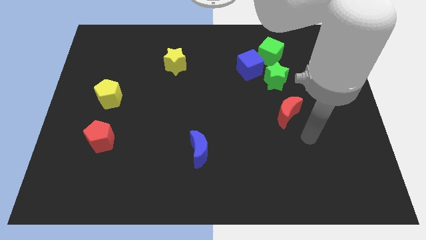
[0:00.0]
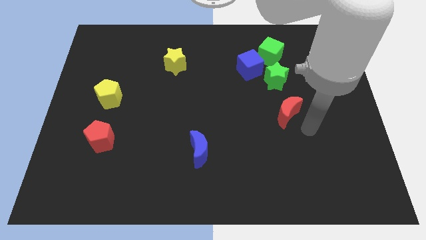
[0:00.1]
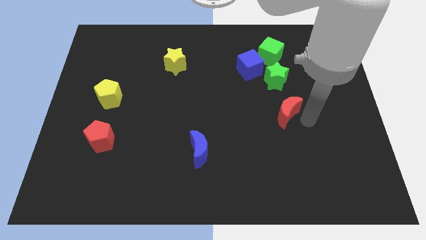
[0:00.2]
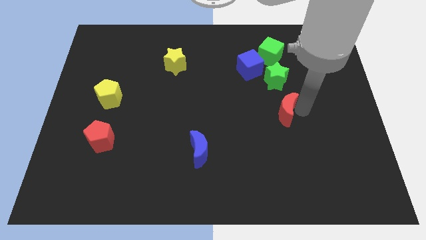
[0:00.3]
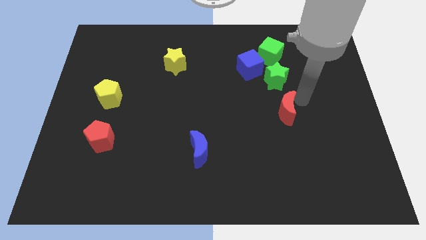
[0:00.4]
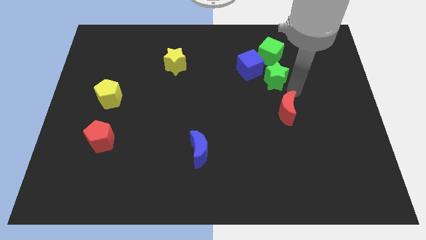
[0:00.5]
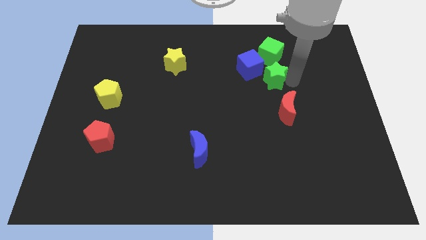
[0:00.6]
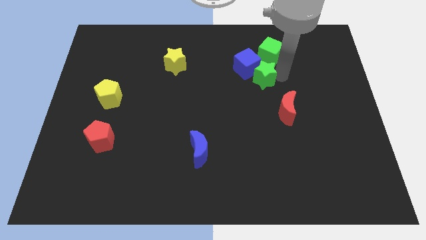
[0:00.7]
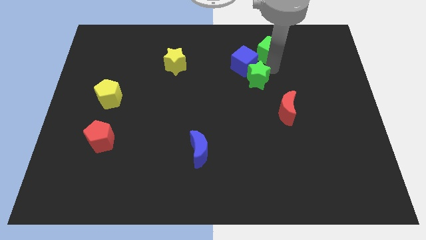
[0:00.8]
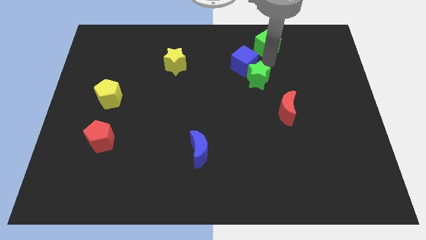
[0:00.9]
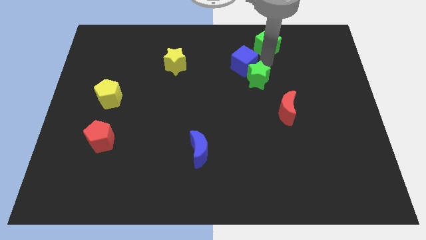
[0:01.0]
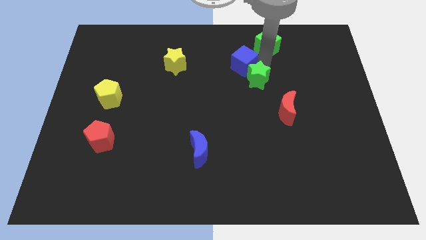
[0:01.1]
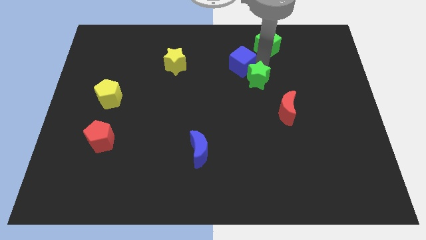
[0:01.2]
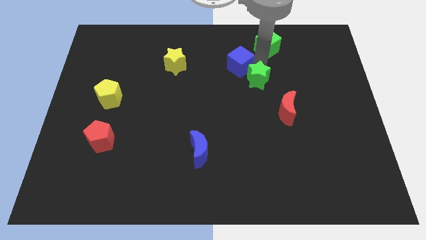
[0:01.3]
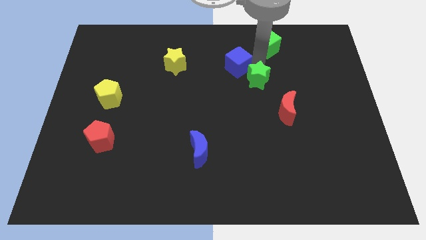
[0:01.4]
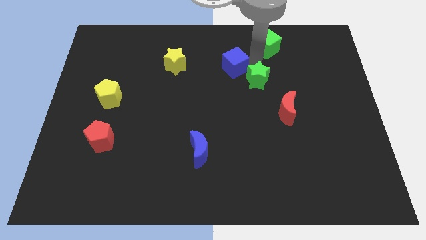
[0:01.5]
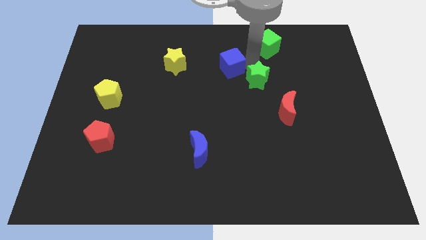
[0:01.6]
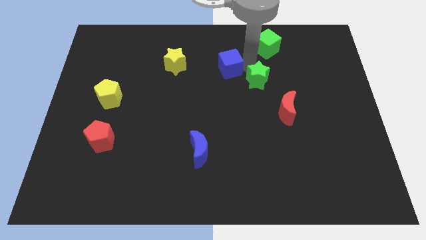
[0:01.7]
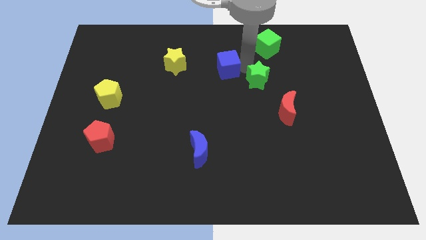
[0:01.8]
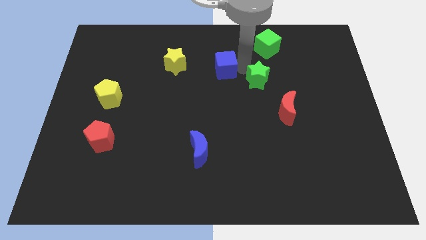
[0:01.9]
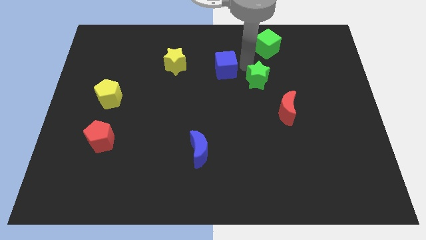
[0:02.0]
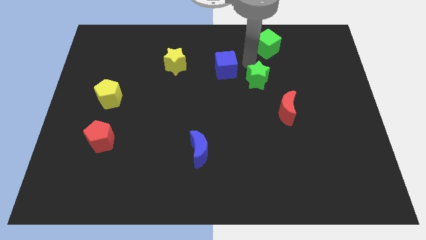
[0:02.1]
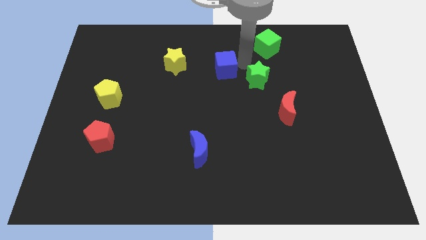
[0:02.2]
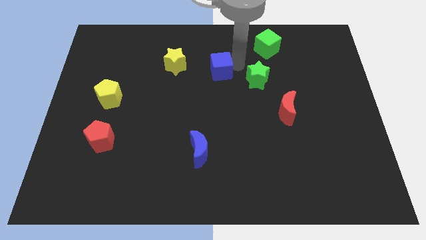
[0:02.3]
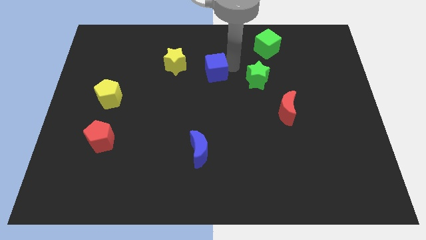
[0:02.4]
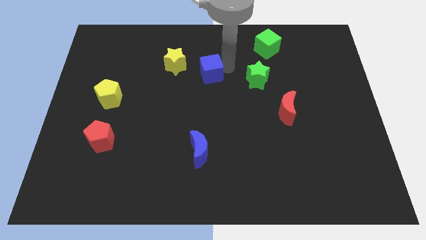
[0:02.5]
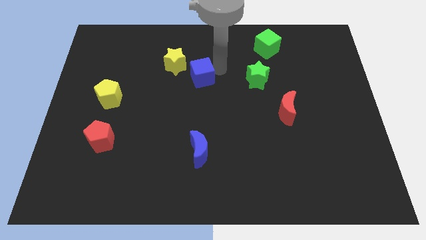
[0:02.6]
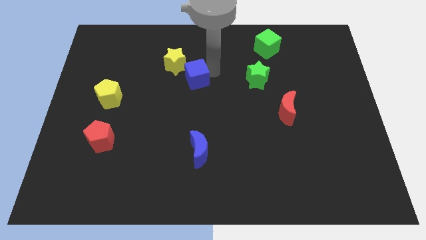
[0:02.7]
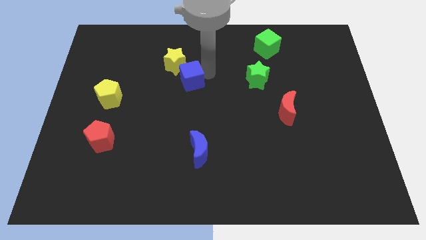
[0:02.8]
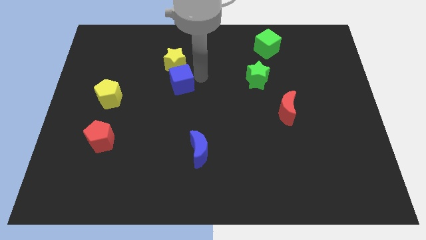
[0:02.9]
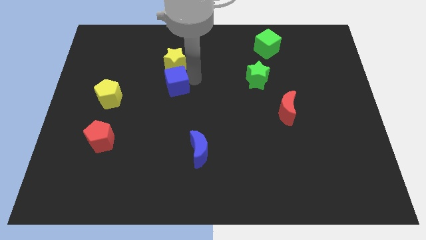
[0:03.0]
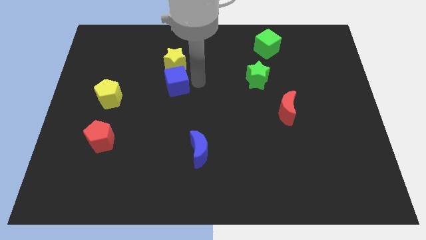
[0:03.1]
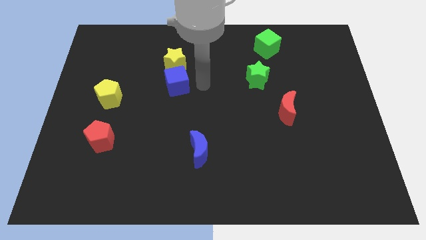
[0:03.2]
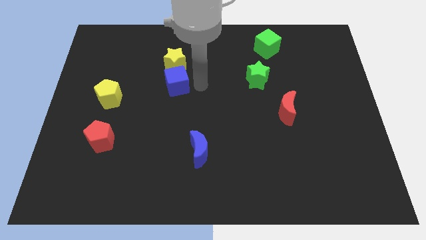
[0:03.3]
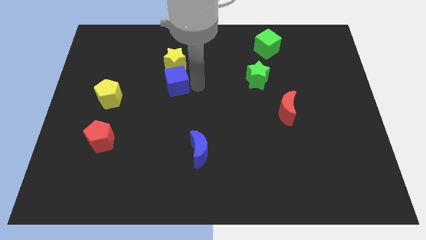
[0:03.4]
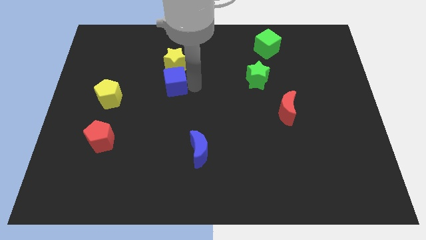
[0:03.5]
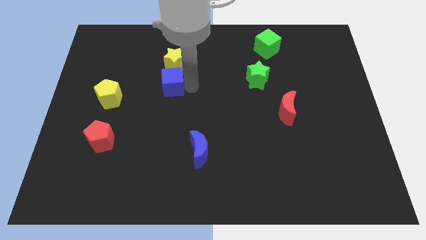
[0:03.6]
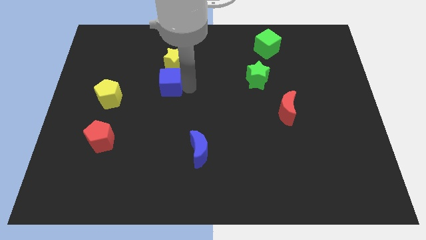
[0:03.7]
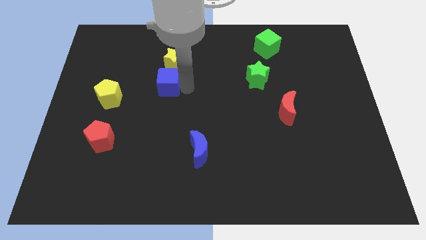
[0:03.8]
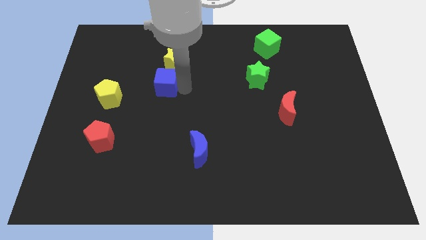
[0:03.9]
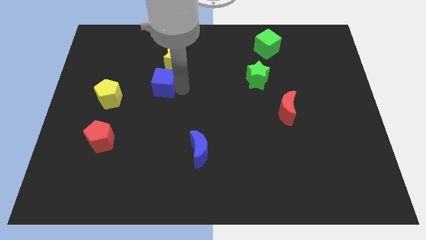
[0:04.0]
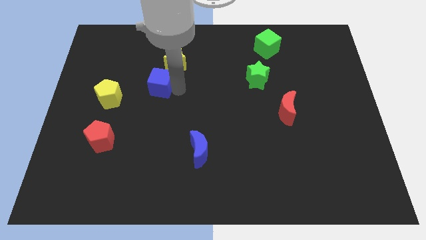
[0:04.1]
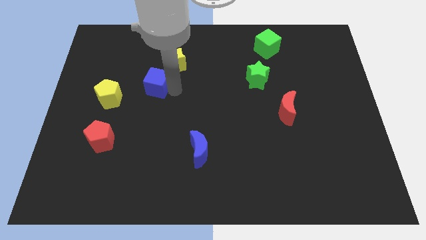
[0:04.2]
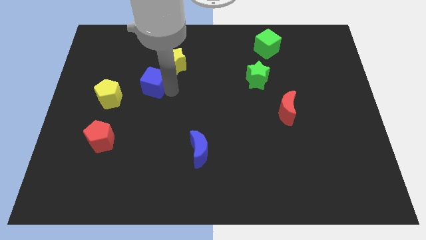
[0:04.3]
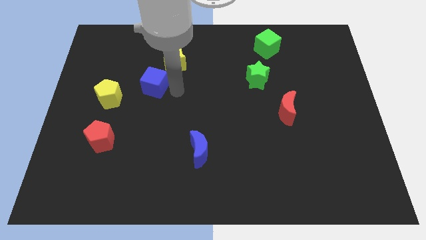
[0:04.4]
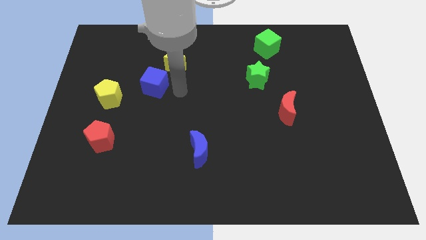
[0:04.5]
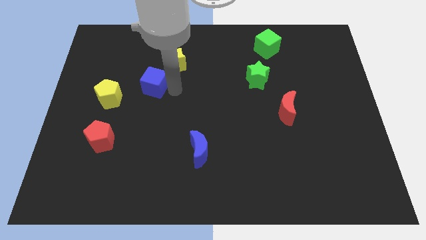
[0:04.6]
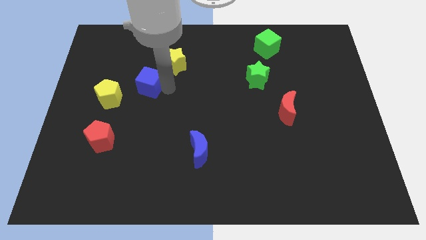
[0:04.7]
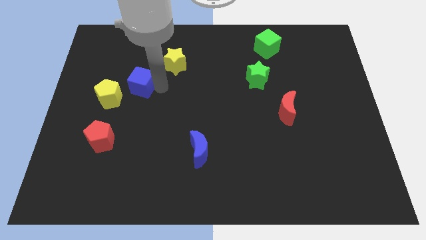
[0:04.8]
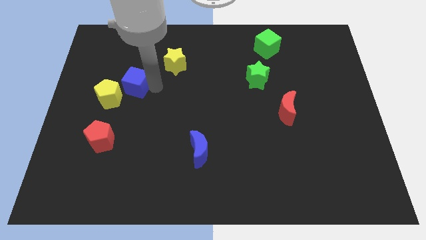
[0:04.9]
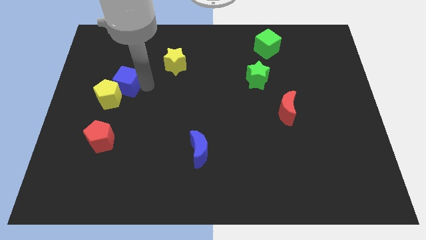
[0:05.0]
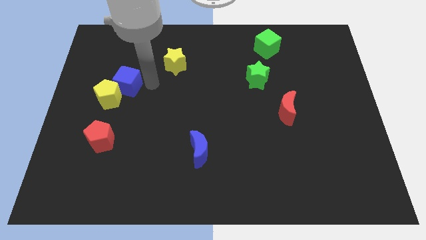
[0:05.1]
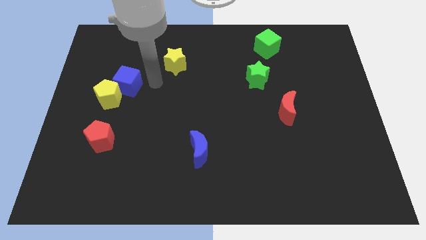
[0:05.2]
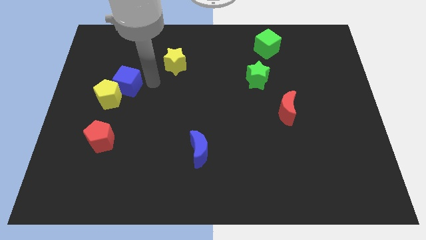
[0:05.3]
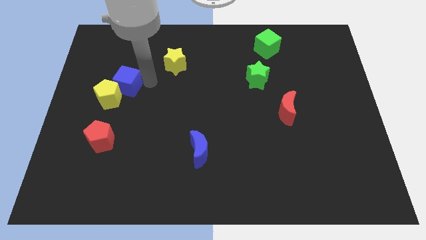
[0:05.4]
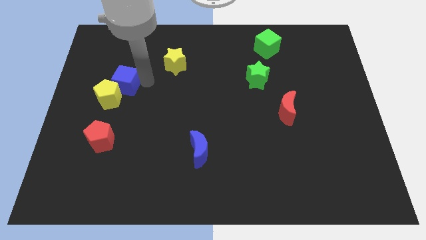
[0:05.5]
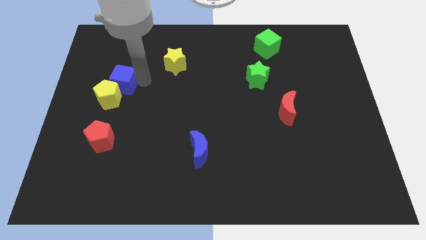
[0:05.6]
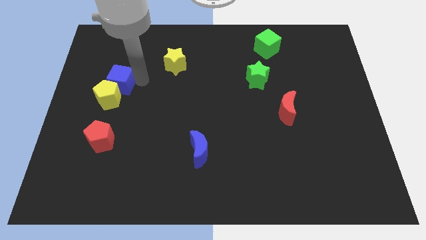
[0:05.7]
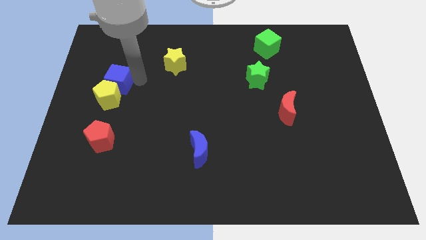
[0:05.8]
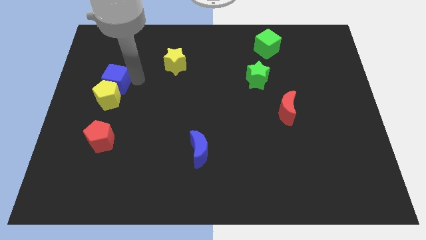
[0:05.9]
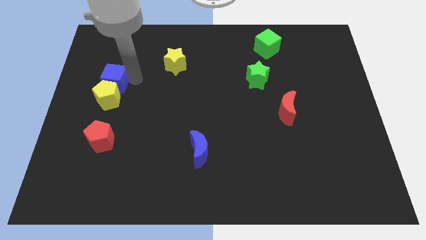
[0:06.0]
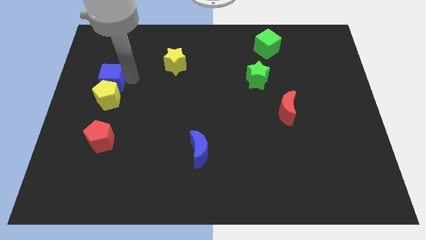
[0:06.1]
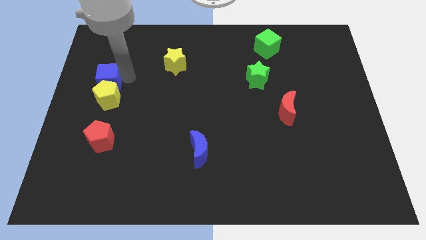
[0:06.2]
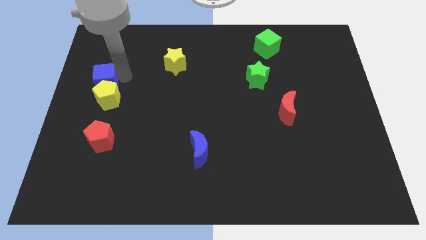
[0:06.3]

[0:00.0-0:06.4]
put the blue cube to the left side
